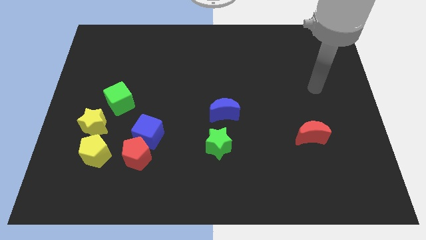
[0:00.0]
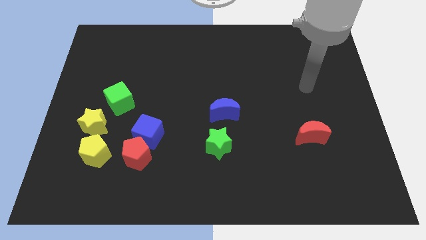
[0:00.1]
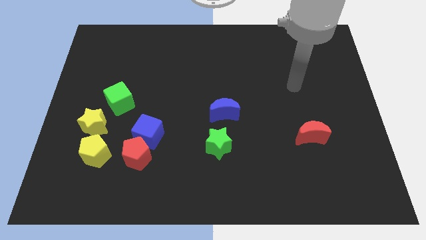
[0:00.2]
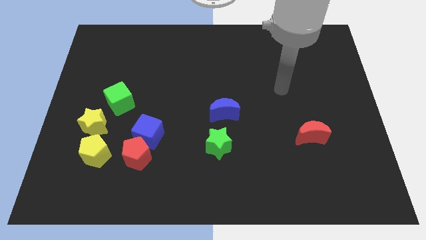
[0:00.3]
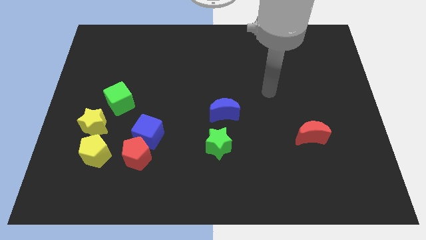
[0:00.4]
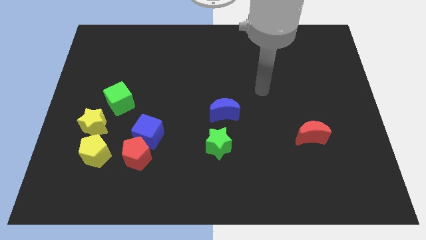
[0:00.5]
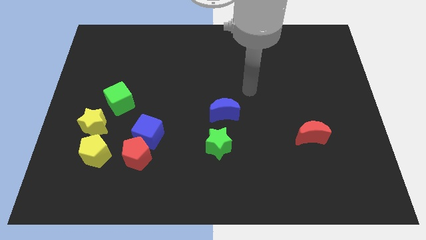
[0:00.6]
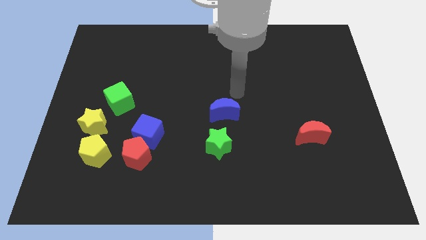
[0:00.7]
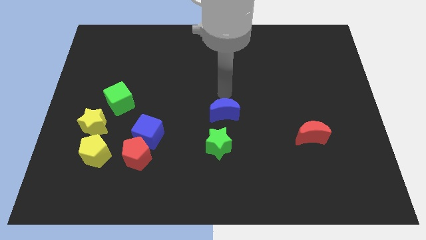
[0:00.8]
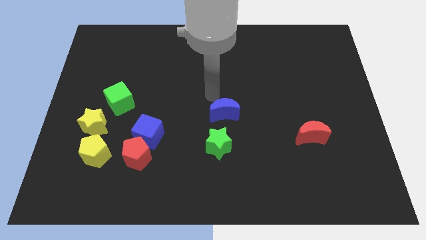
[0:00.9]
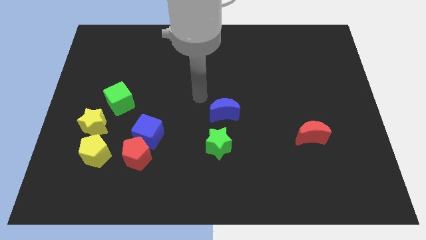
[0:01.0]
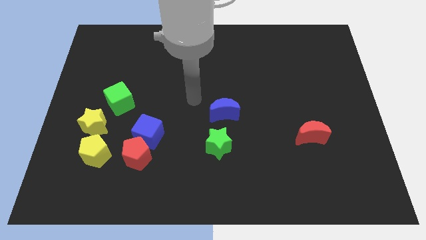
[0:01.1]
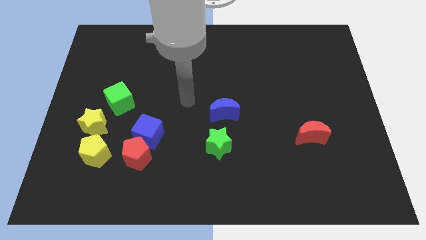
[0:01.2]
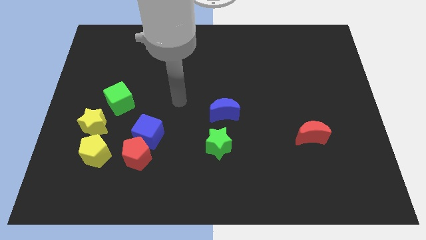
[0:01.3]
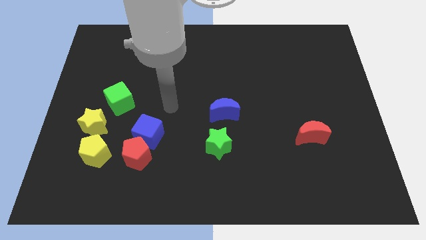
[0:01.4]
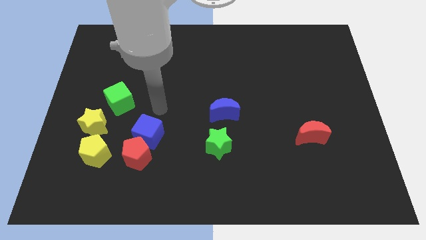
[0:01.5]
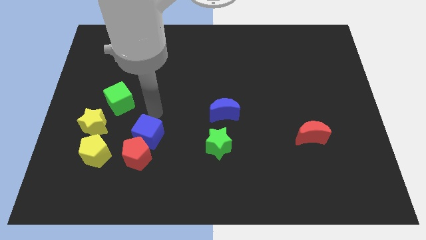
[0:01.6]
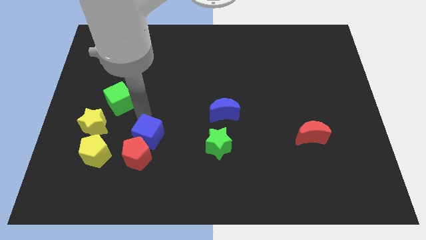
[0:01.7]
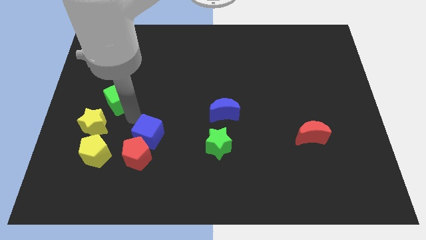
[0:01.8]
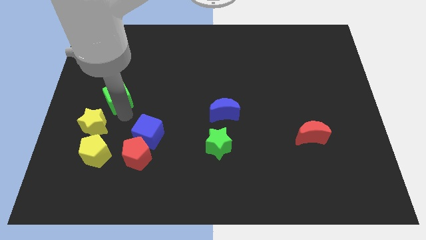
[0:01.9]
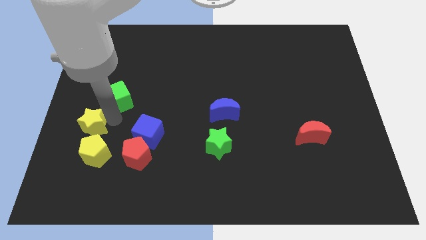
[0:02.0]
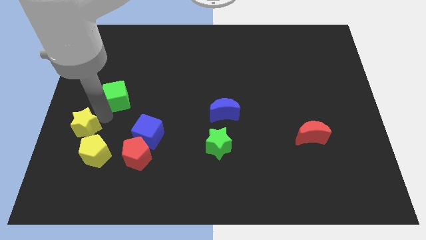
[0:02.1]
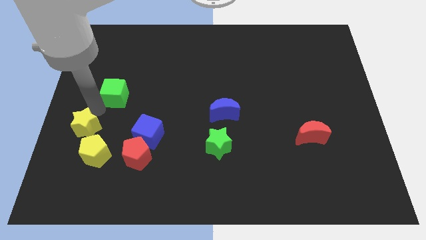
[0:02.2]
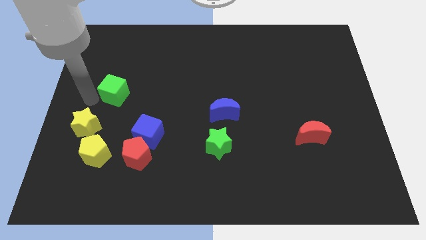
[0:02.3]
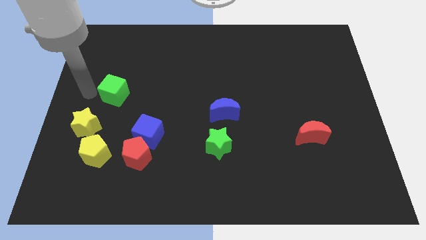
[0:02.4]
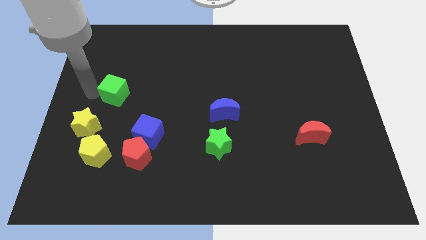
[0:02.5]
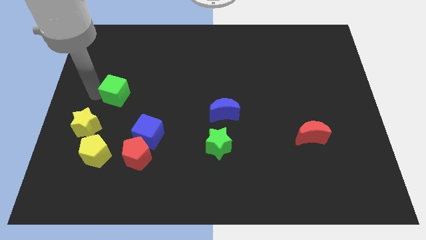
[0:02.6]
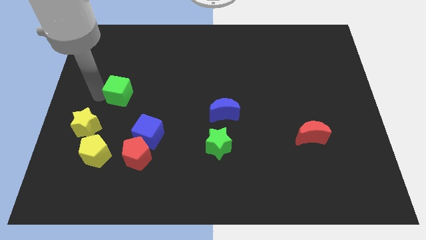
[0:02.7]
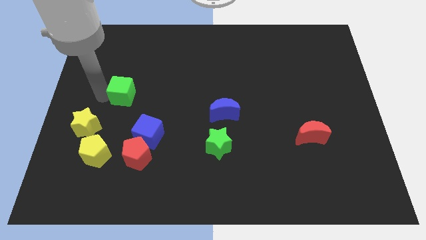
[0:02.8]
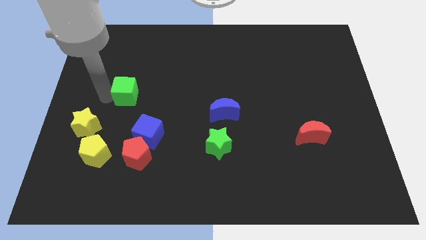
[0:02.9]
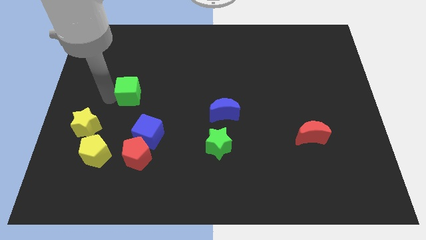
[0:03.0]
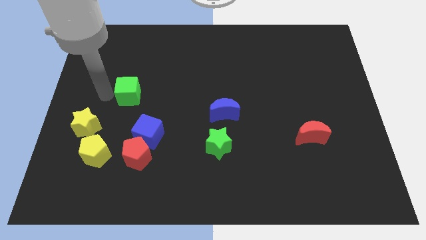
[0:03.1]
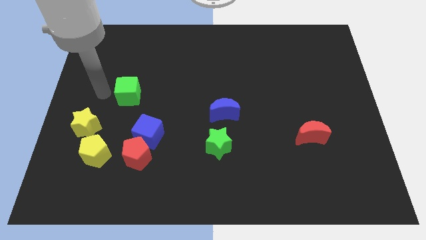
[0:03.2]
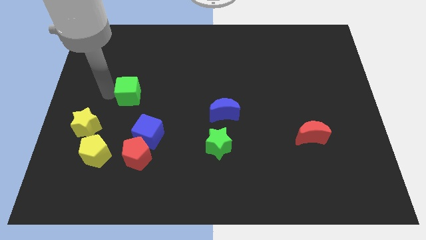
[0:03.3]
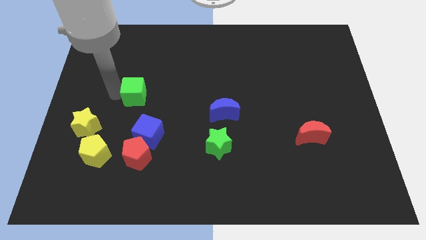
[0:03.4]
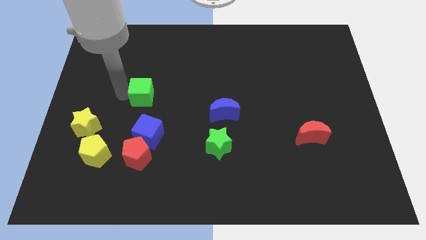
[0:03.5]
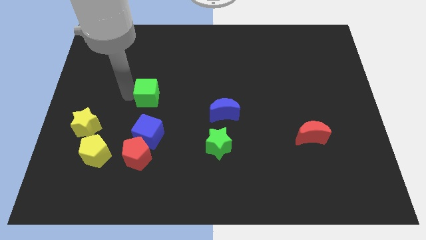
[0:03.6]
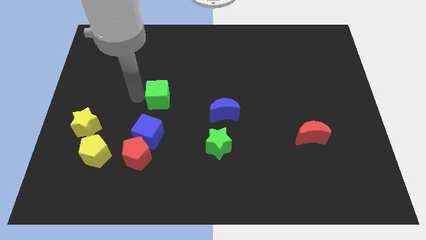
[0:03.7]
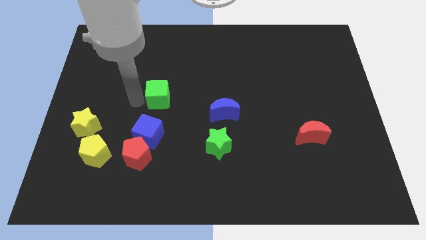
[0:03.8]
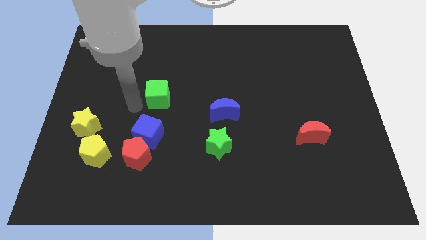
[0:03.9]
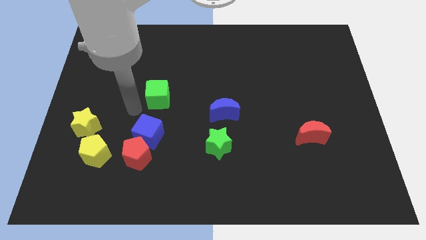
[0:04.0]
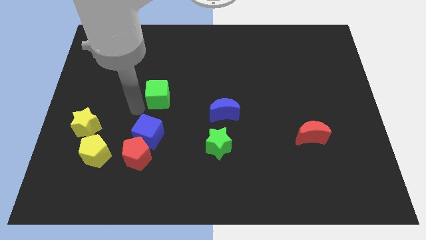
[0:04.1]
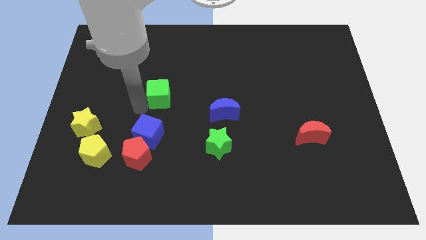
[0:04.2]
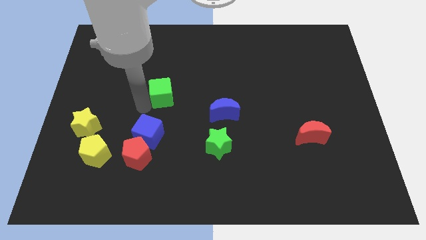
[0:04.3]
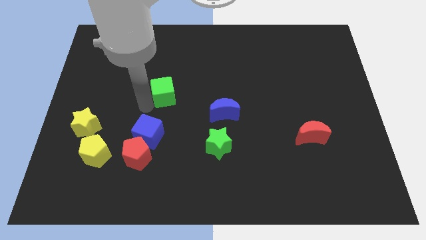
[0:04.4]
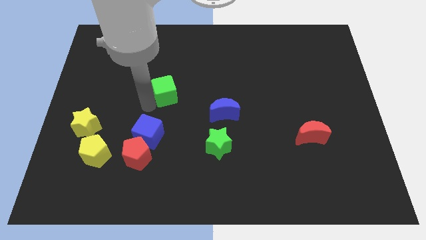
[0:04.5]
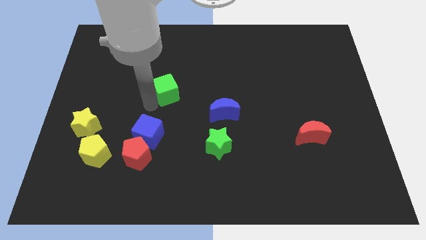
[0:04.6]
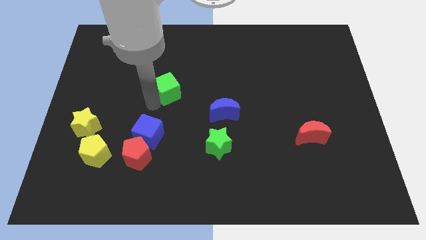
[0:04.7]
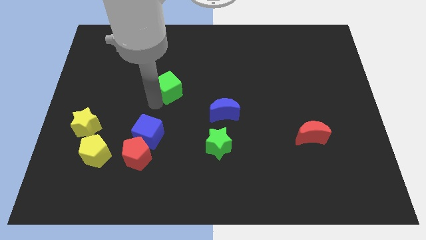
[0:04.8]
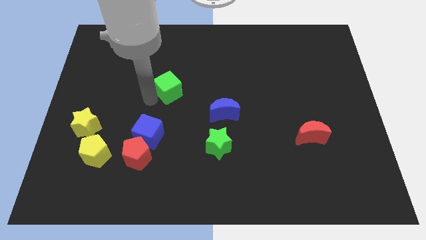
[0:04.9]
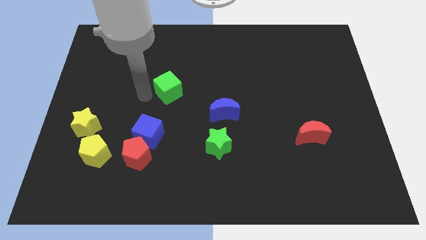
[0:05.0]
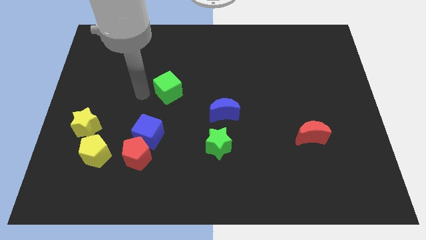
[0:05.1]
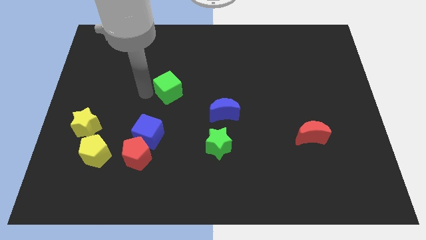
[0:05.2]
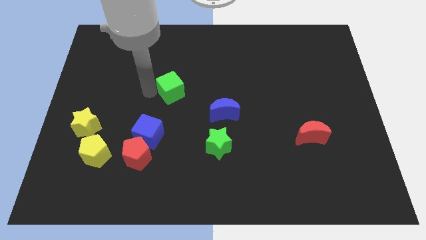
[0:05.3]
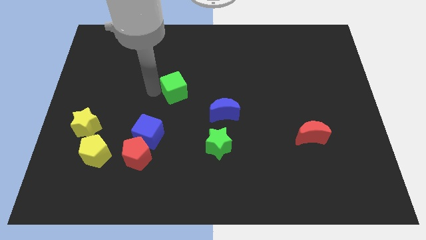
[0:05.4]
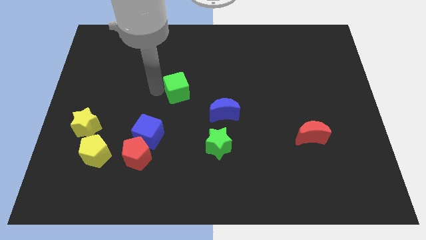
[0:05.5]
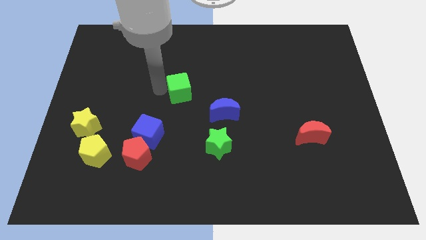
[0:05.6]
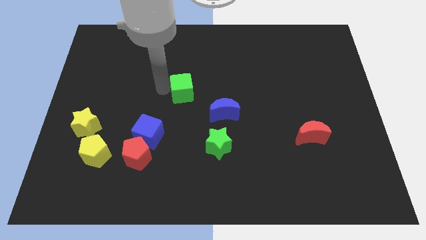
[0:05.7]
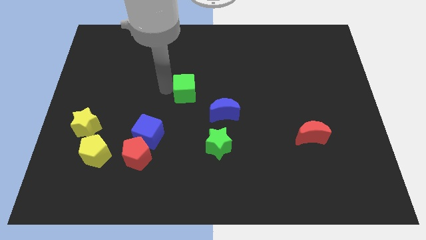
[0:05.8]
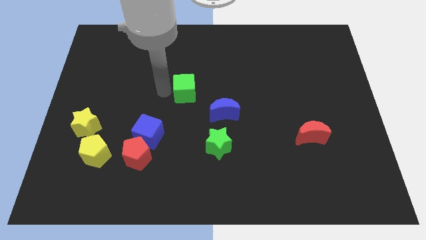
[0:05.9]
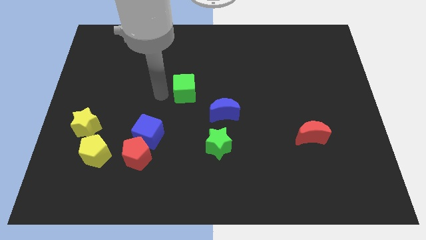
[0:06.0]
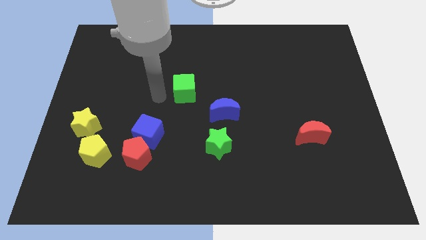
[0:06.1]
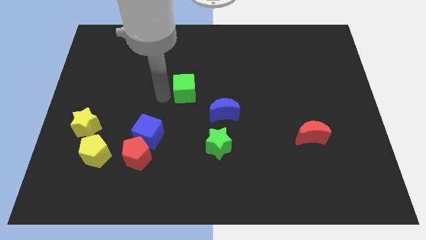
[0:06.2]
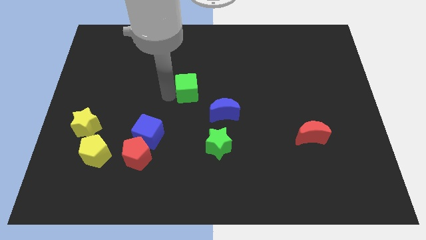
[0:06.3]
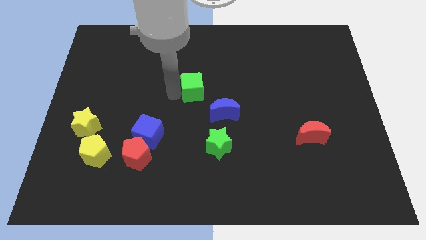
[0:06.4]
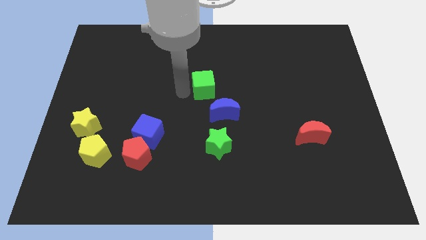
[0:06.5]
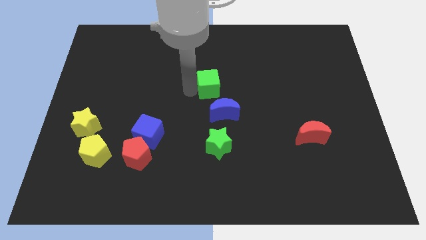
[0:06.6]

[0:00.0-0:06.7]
push the green cube right

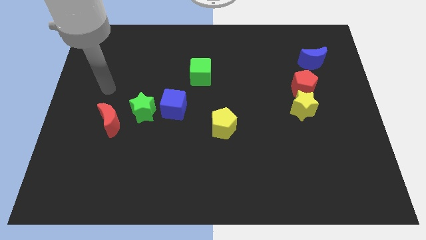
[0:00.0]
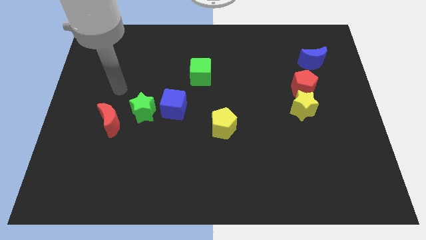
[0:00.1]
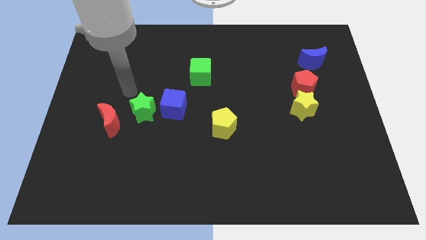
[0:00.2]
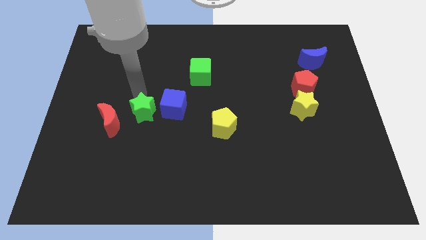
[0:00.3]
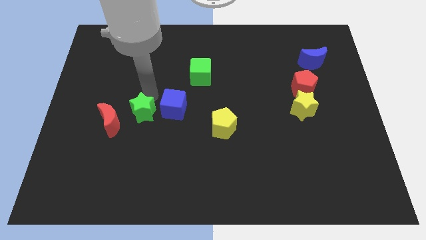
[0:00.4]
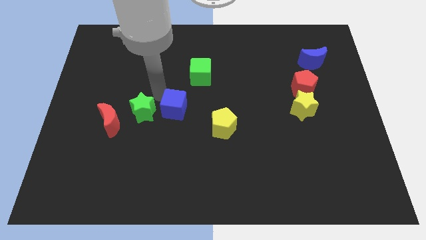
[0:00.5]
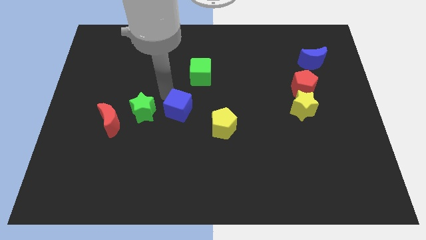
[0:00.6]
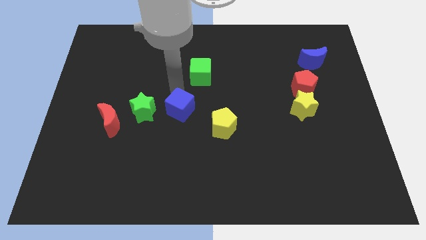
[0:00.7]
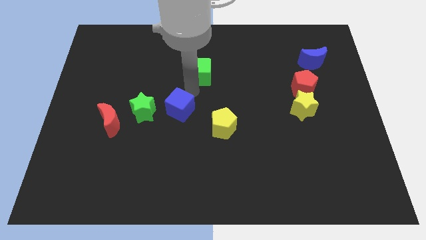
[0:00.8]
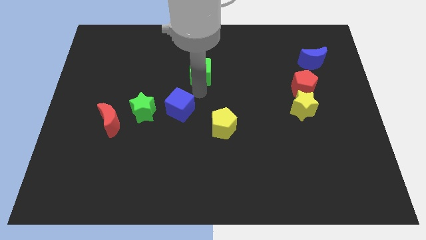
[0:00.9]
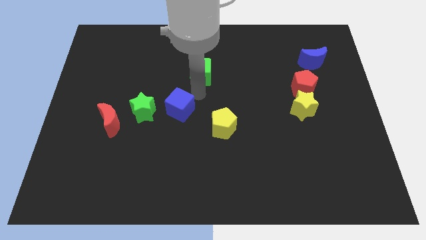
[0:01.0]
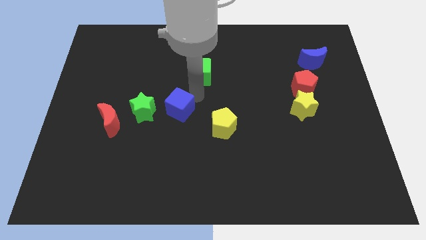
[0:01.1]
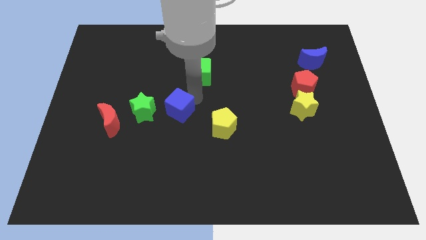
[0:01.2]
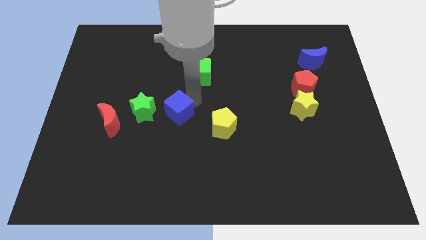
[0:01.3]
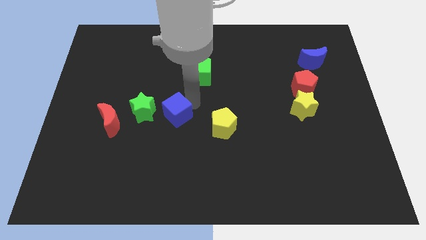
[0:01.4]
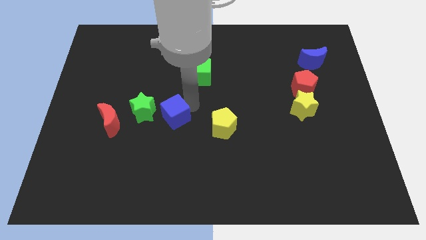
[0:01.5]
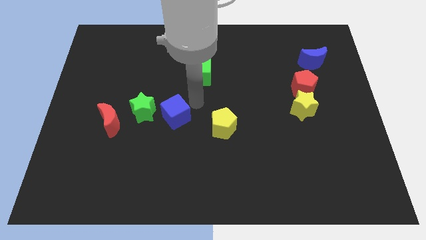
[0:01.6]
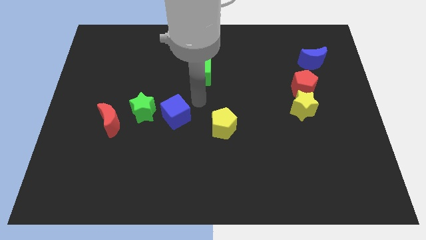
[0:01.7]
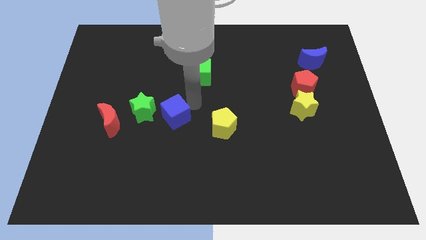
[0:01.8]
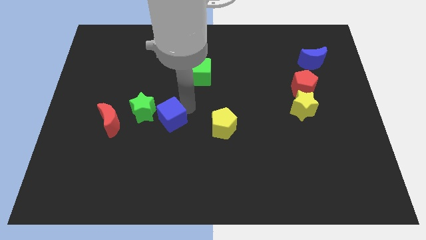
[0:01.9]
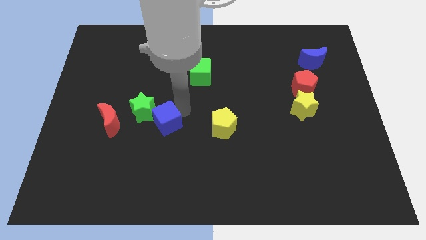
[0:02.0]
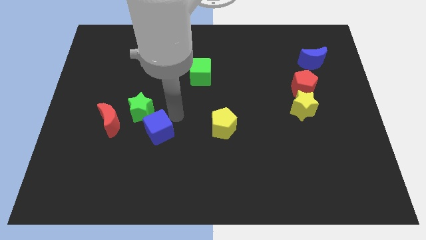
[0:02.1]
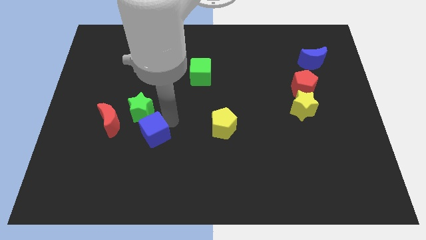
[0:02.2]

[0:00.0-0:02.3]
push the blue cube down and then to the left a little bit
